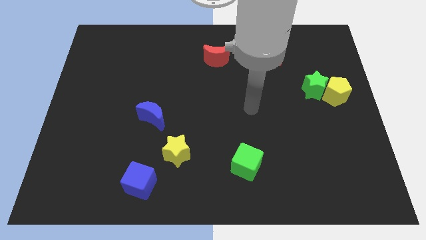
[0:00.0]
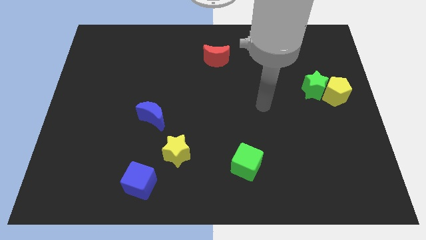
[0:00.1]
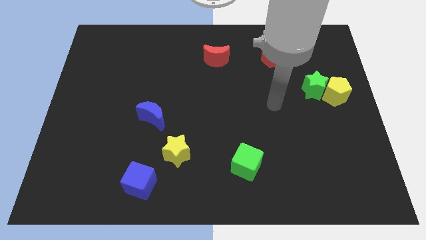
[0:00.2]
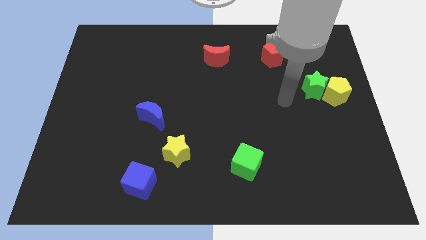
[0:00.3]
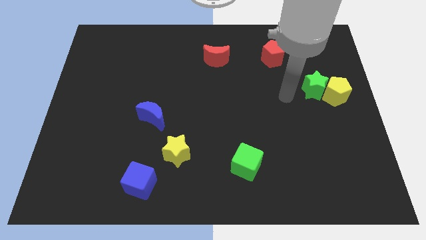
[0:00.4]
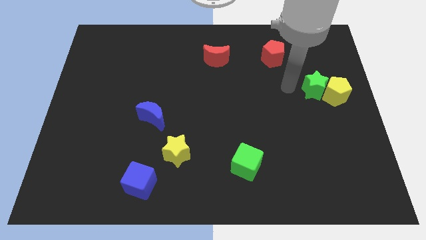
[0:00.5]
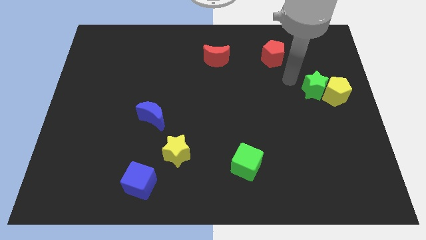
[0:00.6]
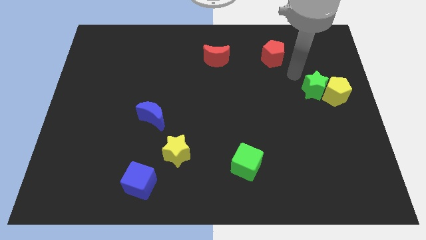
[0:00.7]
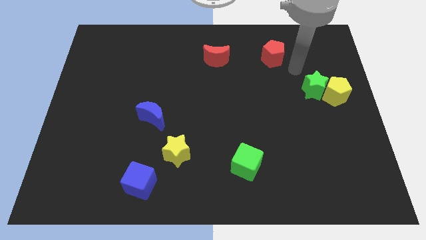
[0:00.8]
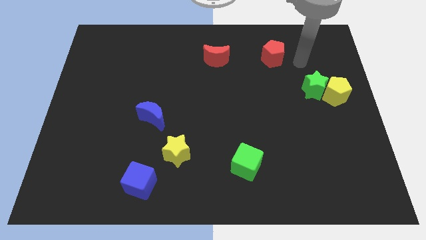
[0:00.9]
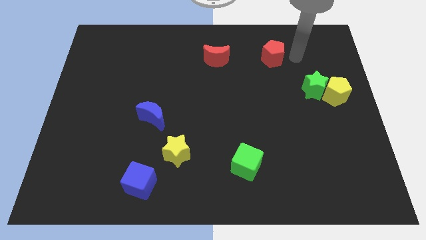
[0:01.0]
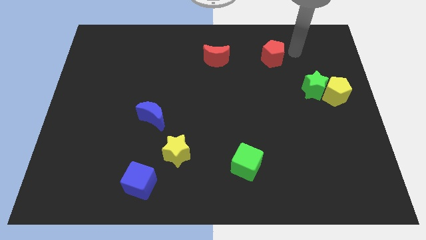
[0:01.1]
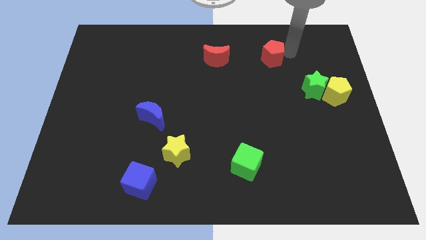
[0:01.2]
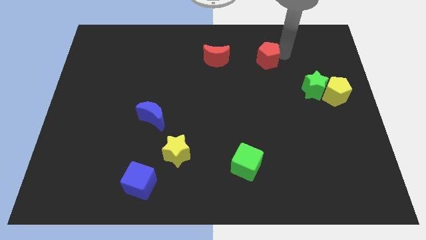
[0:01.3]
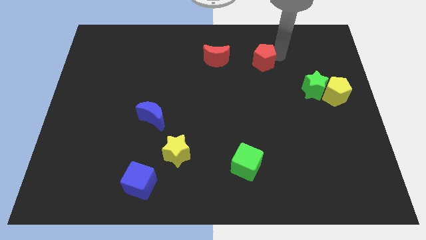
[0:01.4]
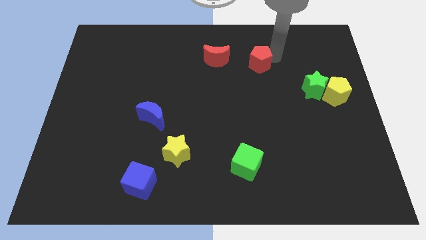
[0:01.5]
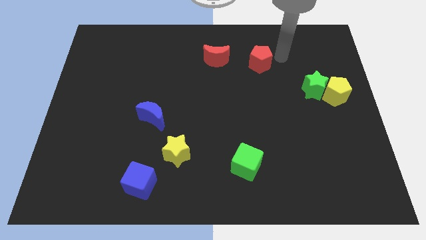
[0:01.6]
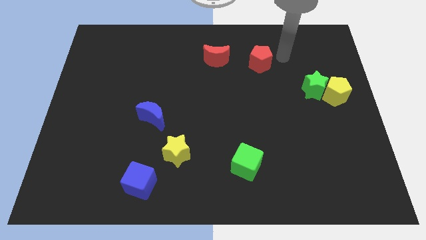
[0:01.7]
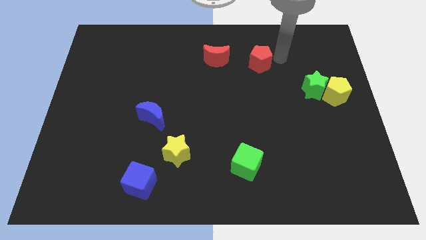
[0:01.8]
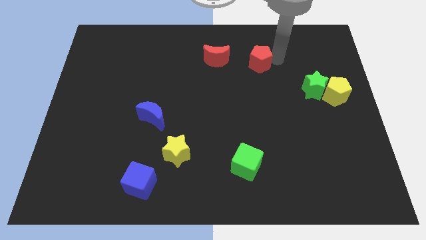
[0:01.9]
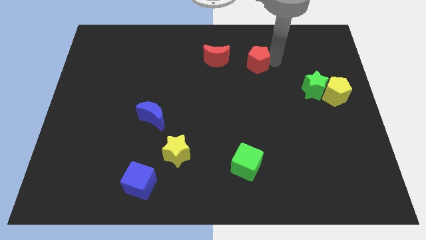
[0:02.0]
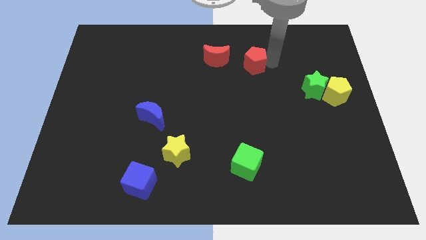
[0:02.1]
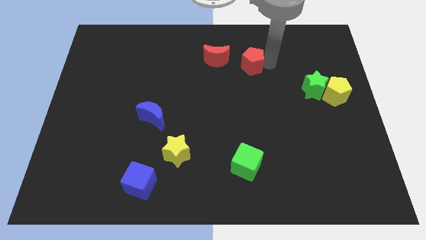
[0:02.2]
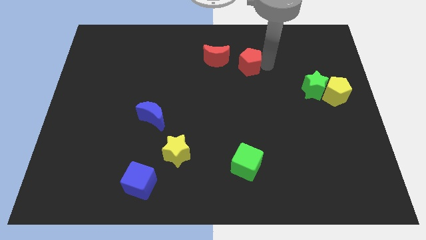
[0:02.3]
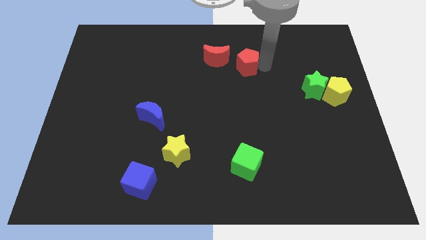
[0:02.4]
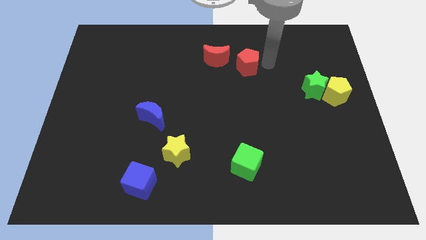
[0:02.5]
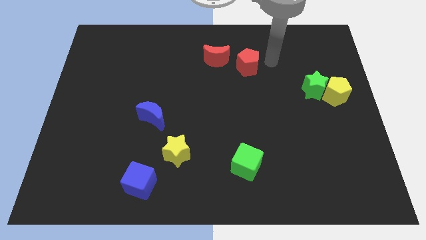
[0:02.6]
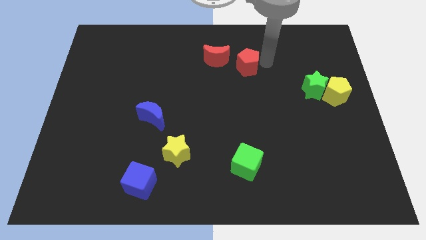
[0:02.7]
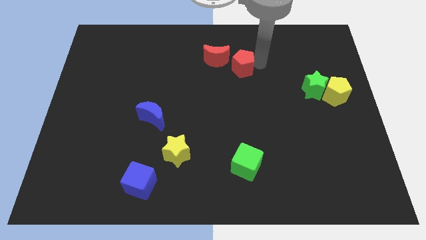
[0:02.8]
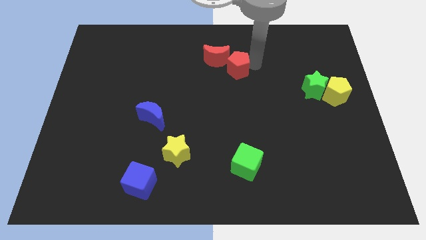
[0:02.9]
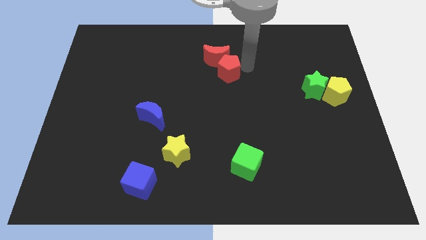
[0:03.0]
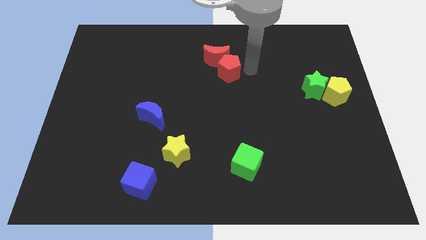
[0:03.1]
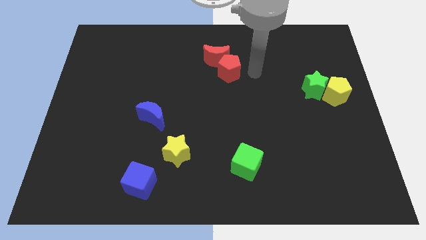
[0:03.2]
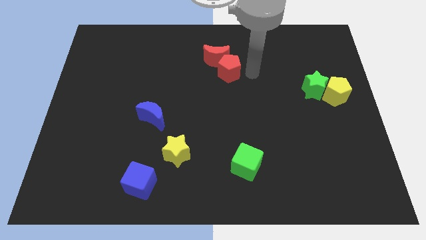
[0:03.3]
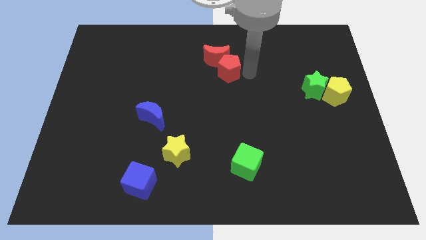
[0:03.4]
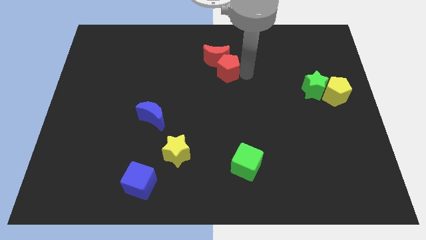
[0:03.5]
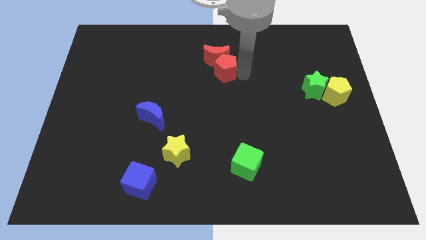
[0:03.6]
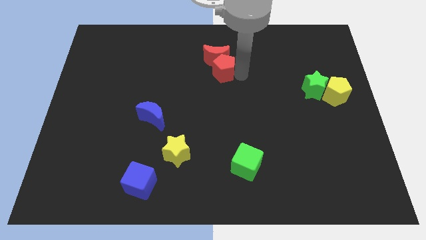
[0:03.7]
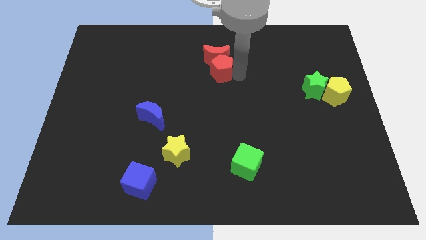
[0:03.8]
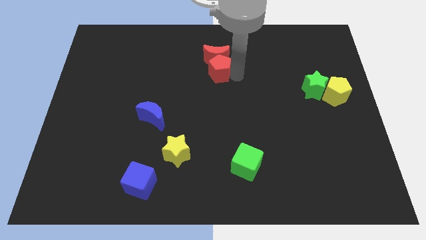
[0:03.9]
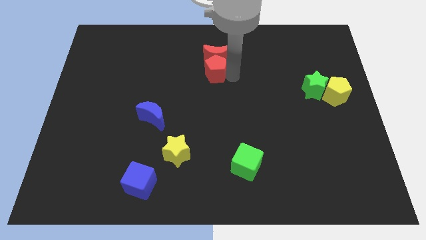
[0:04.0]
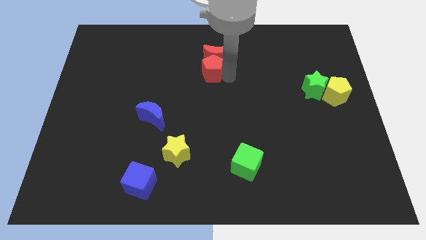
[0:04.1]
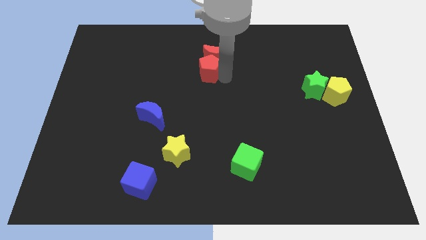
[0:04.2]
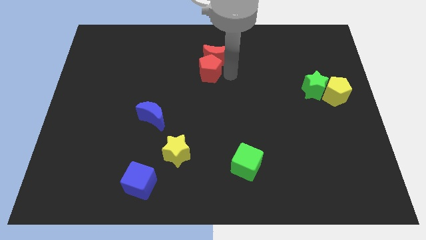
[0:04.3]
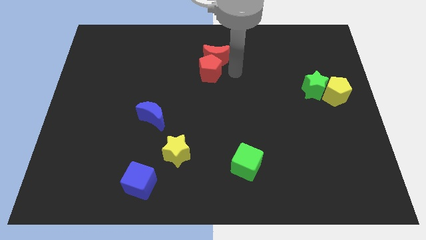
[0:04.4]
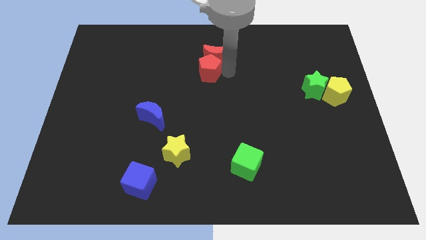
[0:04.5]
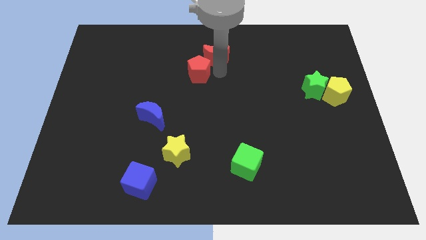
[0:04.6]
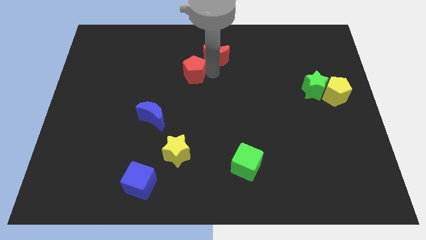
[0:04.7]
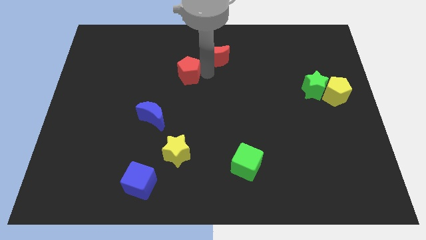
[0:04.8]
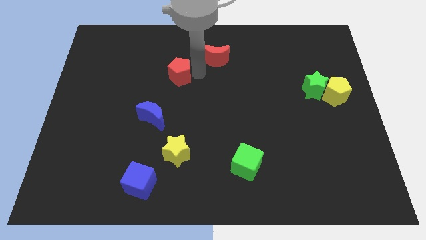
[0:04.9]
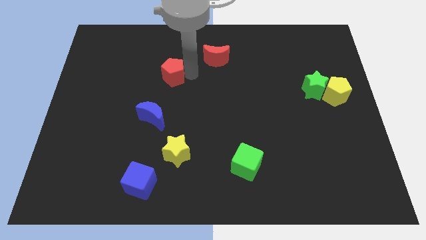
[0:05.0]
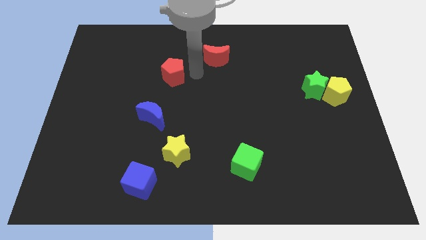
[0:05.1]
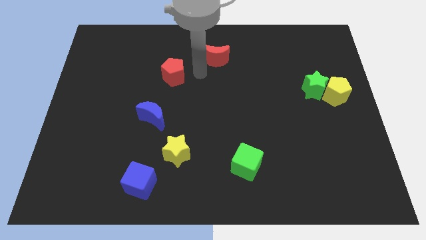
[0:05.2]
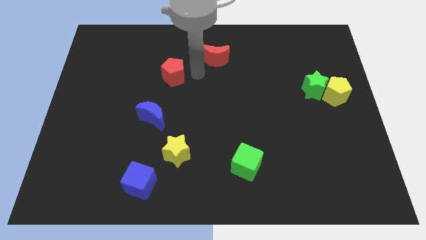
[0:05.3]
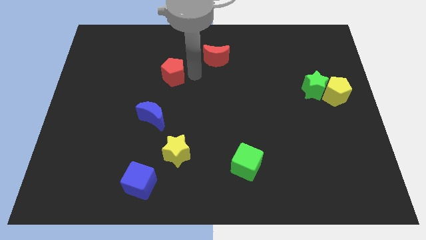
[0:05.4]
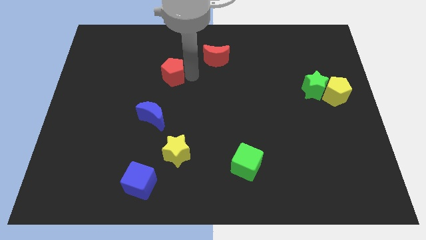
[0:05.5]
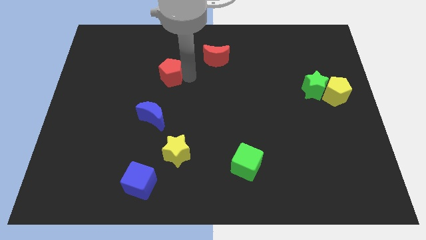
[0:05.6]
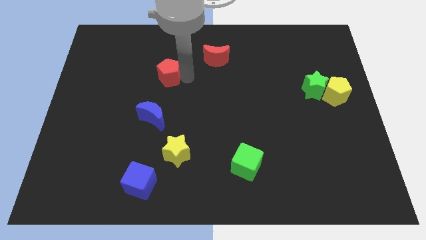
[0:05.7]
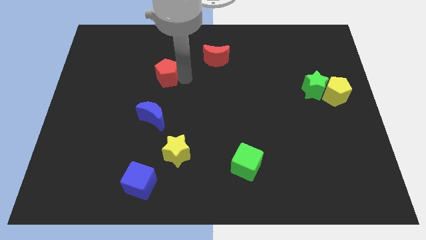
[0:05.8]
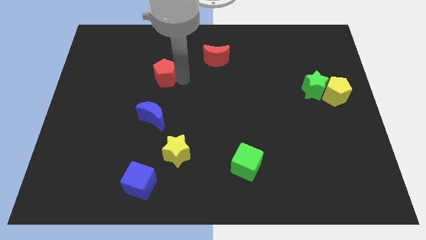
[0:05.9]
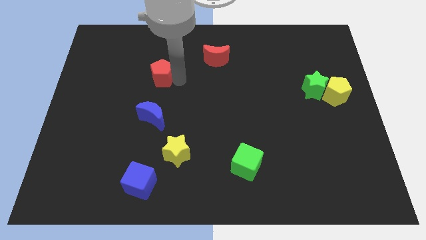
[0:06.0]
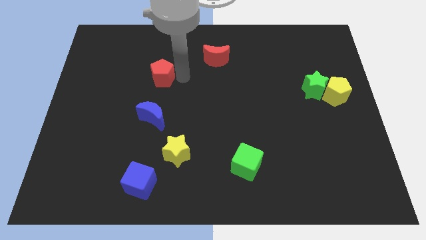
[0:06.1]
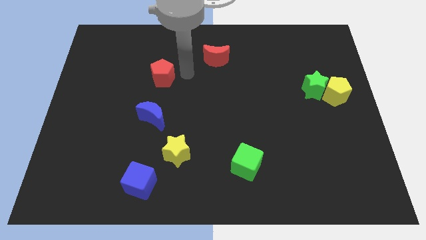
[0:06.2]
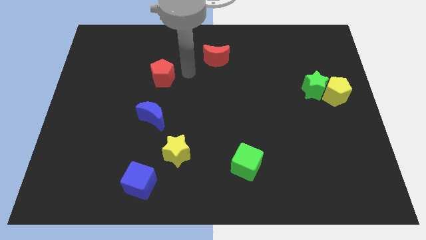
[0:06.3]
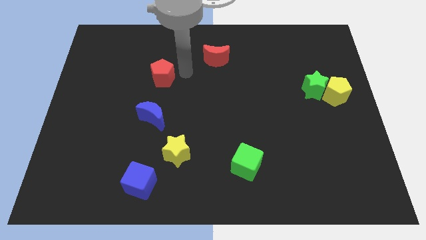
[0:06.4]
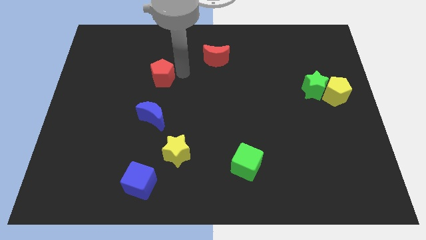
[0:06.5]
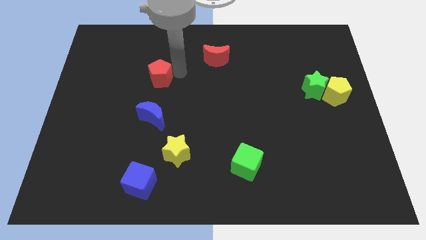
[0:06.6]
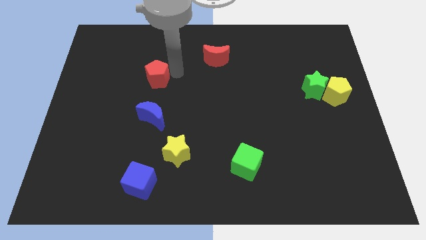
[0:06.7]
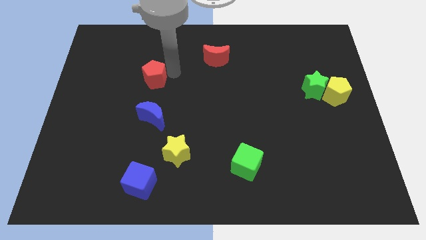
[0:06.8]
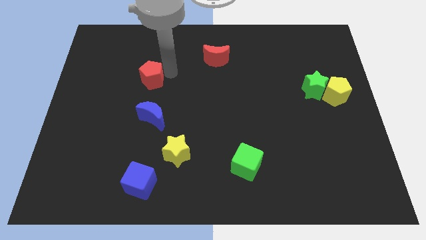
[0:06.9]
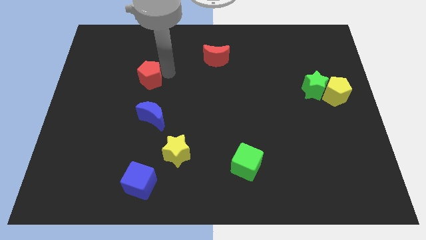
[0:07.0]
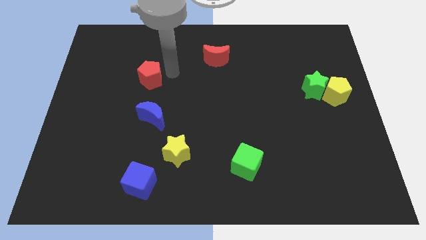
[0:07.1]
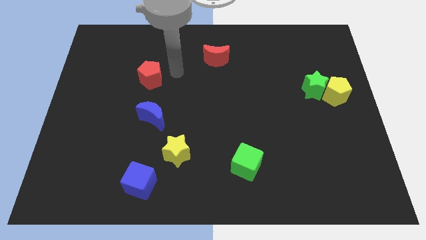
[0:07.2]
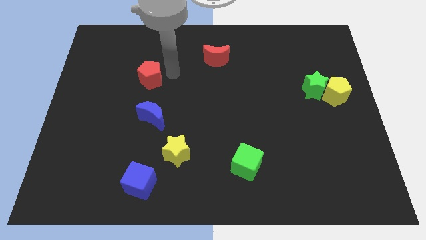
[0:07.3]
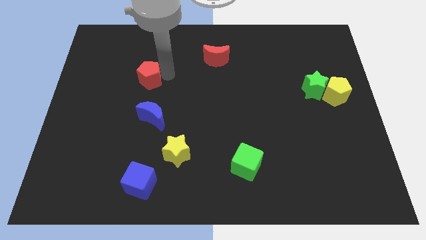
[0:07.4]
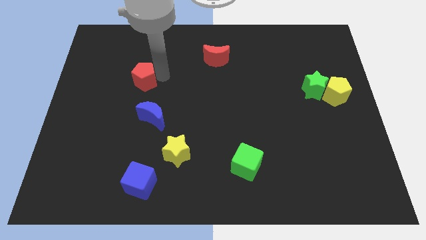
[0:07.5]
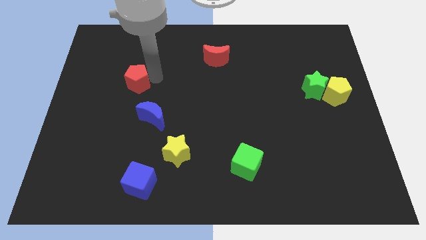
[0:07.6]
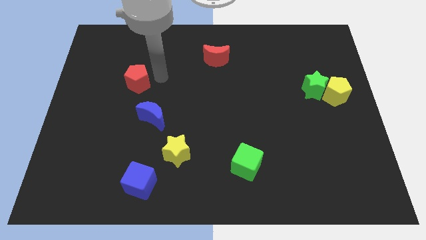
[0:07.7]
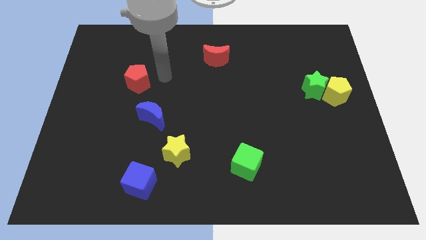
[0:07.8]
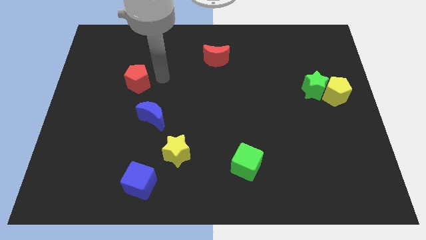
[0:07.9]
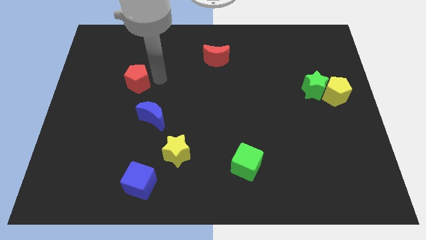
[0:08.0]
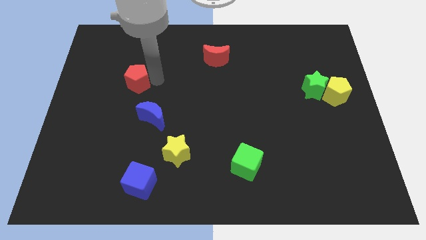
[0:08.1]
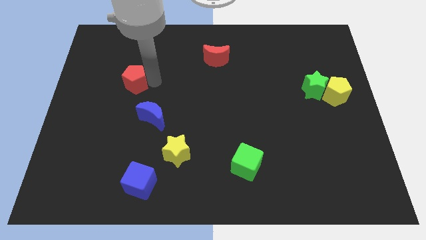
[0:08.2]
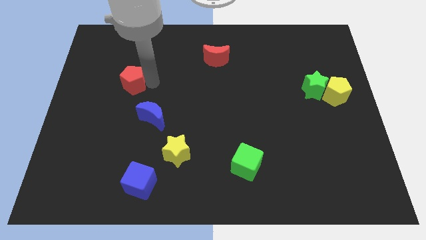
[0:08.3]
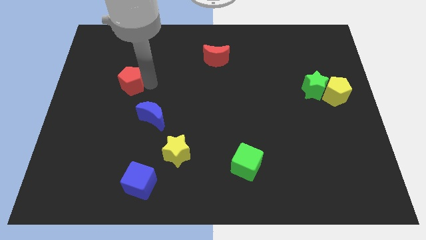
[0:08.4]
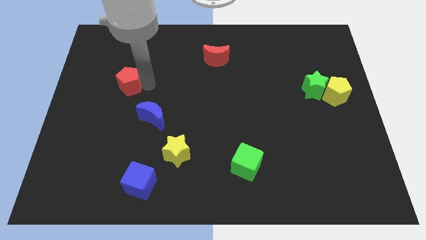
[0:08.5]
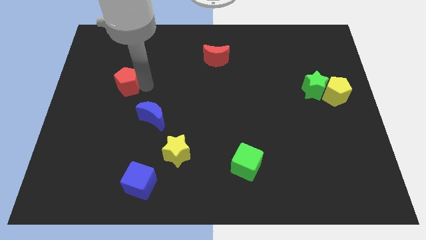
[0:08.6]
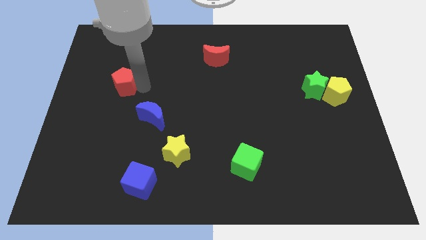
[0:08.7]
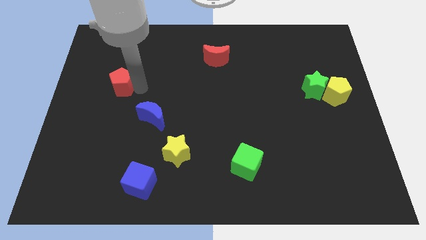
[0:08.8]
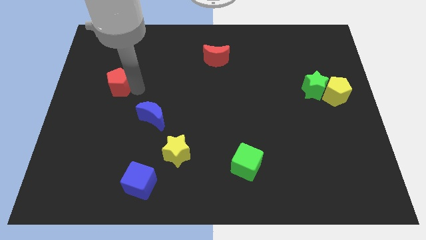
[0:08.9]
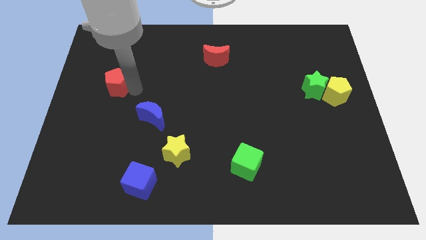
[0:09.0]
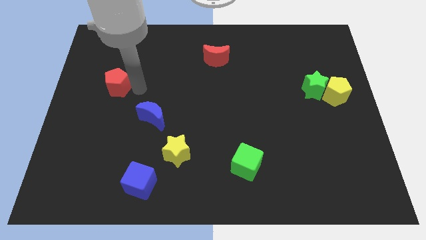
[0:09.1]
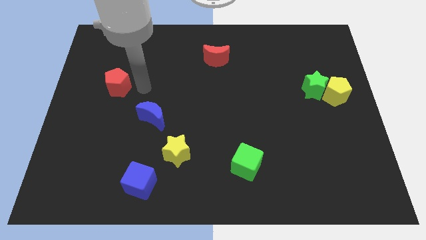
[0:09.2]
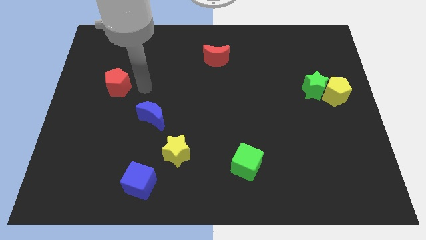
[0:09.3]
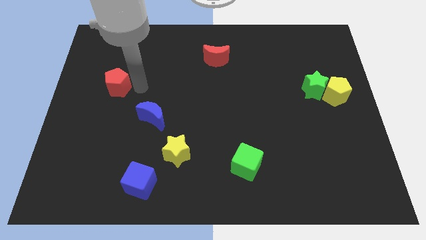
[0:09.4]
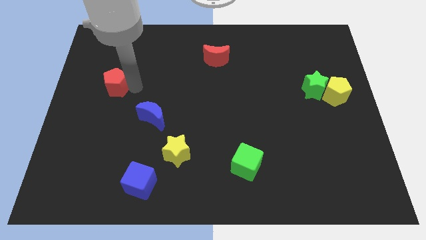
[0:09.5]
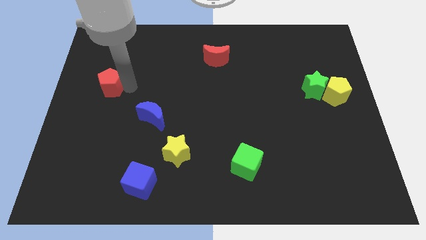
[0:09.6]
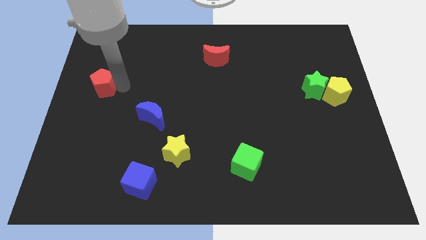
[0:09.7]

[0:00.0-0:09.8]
slide the red pentagon to the center left
